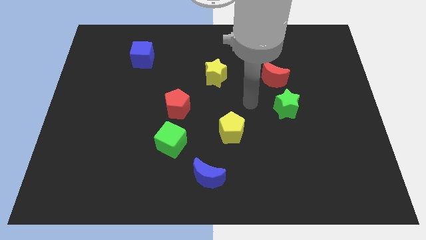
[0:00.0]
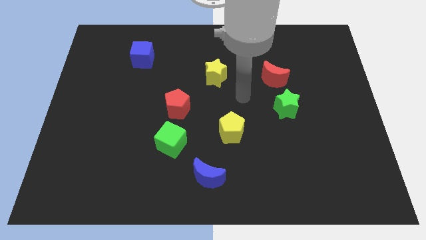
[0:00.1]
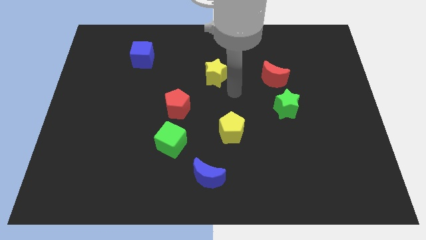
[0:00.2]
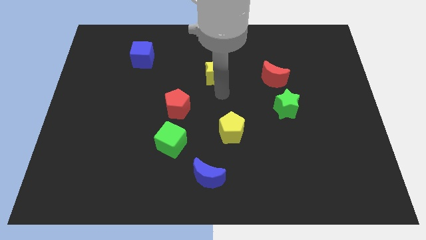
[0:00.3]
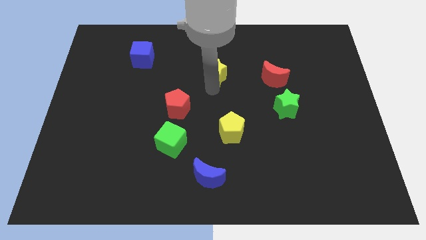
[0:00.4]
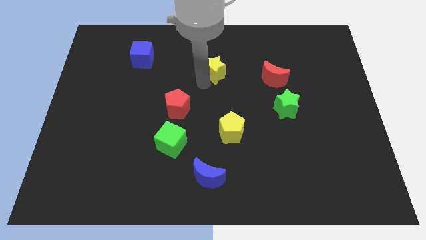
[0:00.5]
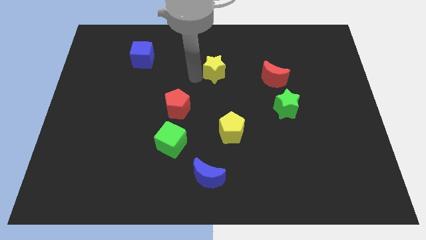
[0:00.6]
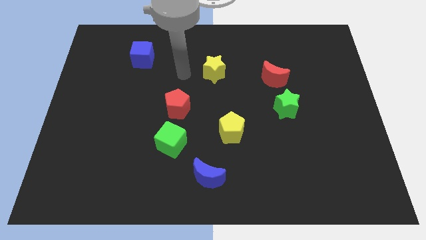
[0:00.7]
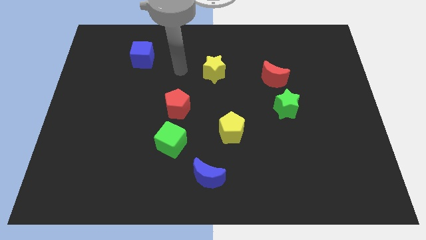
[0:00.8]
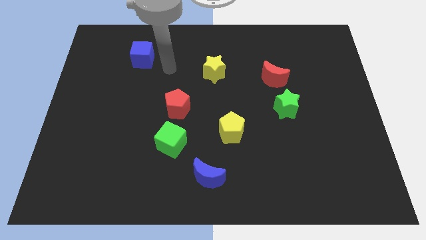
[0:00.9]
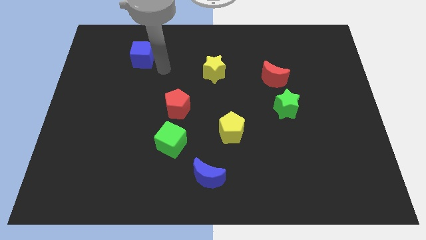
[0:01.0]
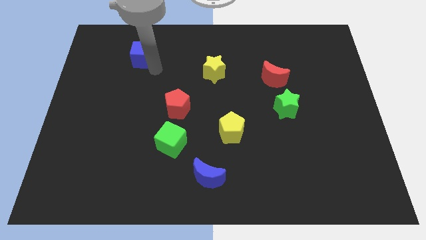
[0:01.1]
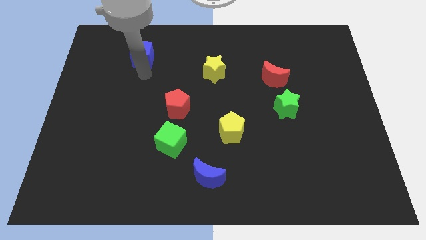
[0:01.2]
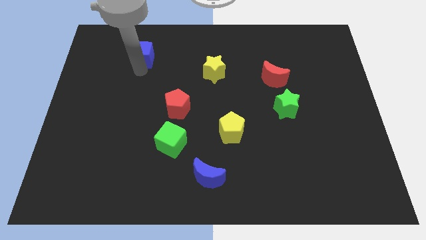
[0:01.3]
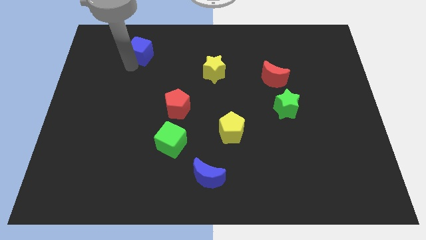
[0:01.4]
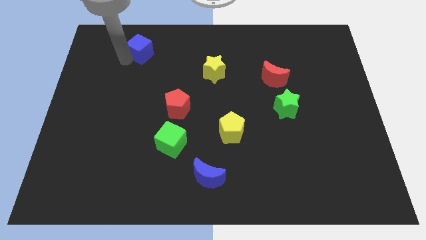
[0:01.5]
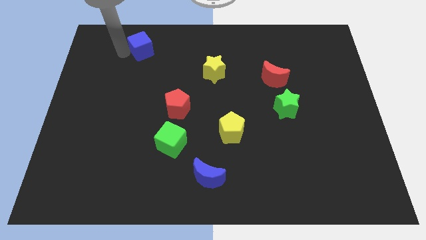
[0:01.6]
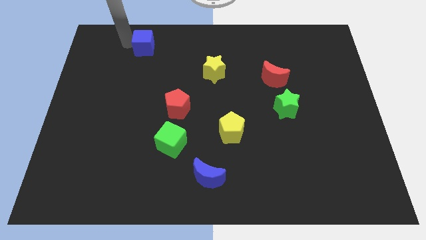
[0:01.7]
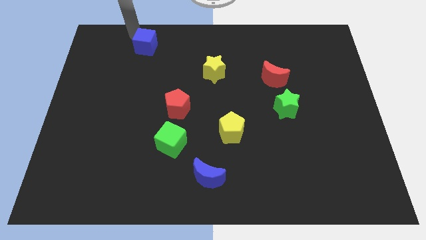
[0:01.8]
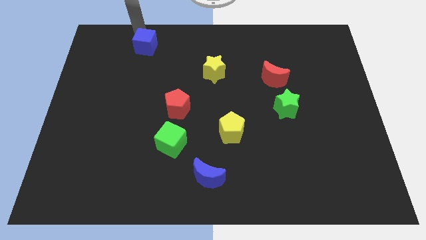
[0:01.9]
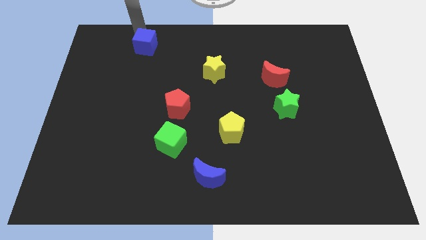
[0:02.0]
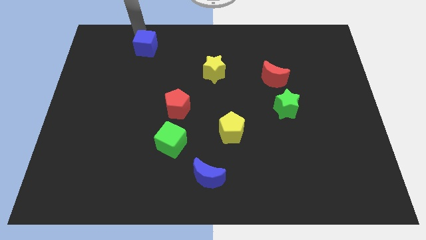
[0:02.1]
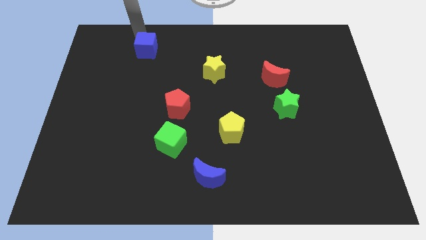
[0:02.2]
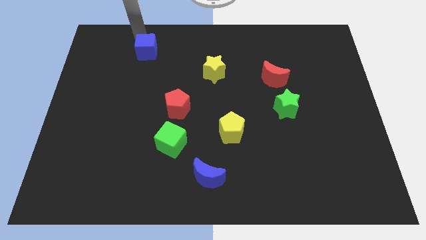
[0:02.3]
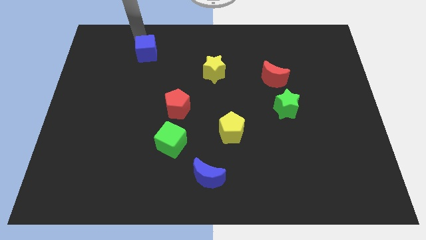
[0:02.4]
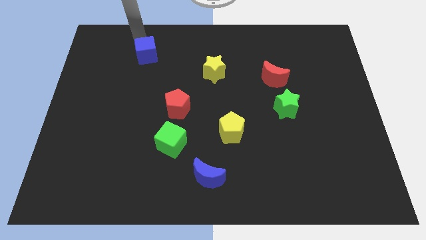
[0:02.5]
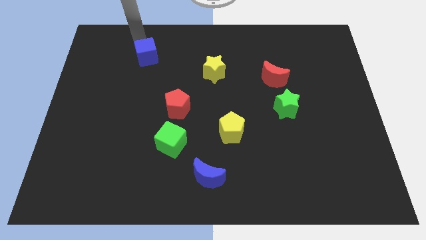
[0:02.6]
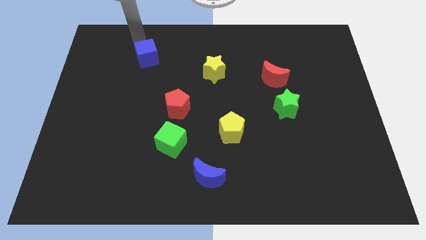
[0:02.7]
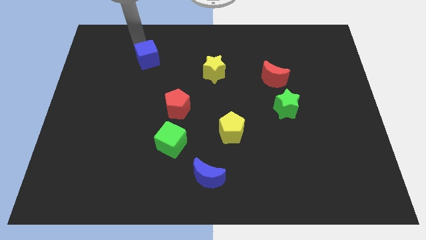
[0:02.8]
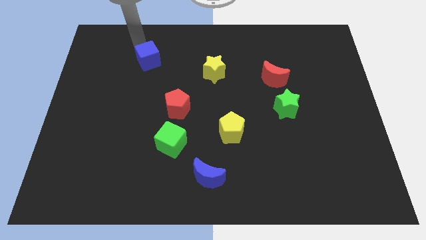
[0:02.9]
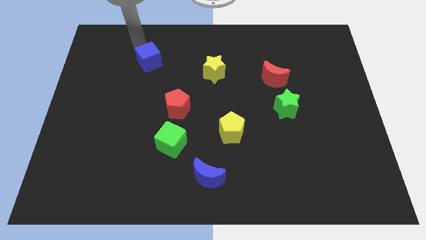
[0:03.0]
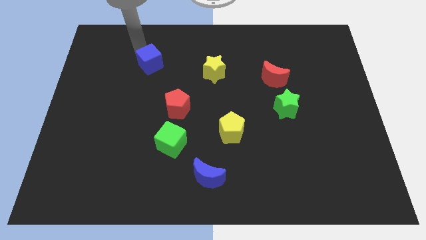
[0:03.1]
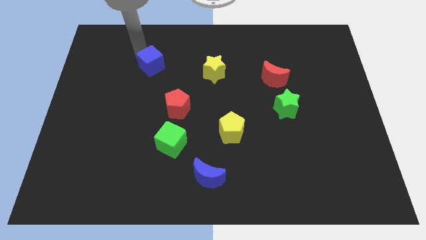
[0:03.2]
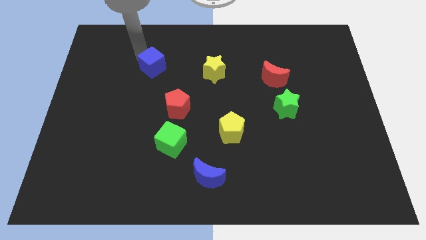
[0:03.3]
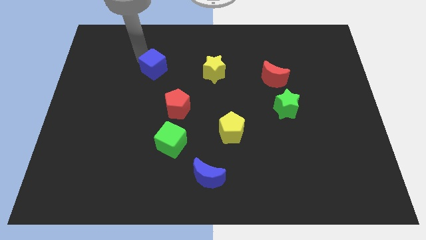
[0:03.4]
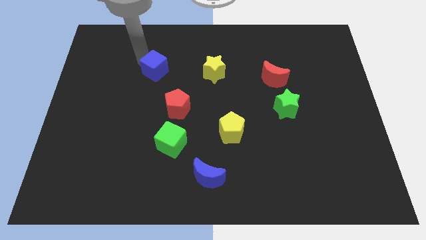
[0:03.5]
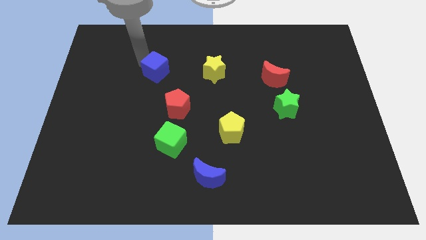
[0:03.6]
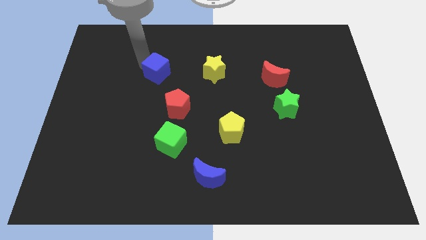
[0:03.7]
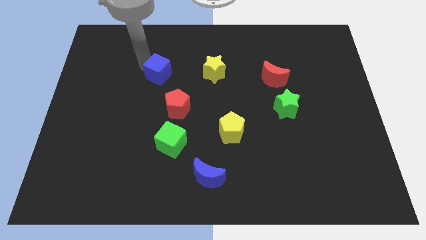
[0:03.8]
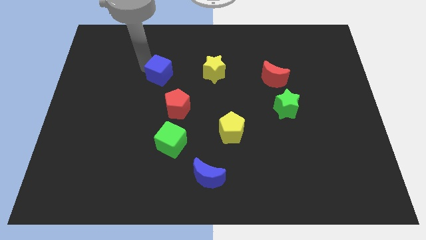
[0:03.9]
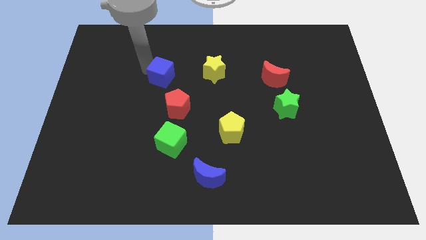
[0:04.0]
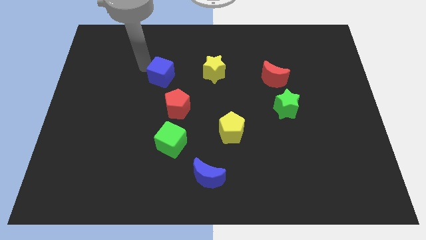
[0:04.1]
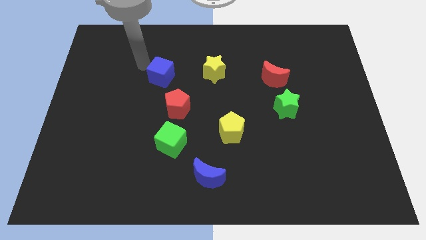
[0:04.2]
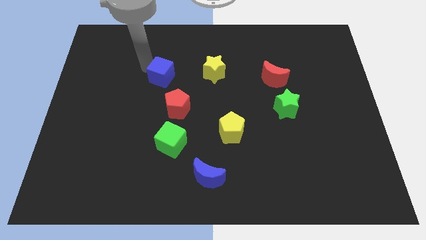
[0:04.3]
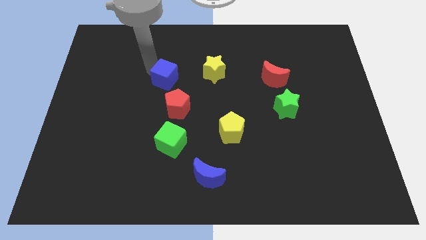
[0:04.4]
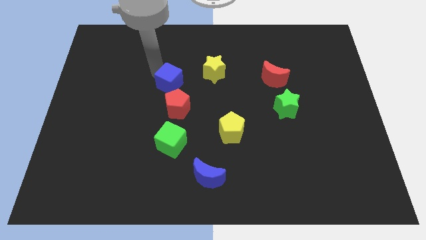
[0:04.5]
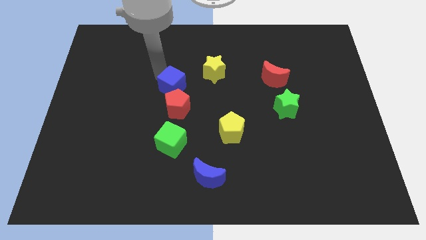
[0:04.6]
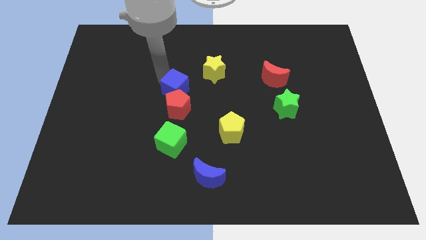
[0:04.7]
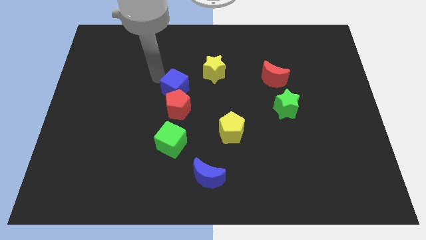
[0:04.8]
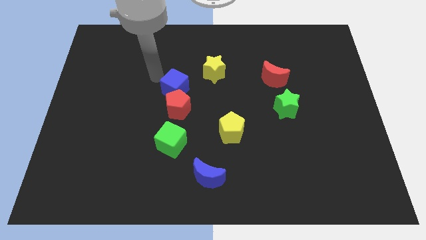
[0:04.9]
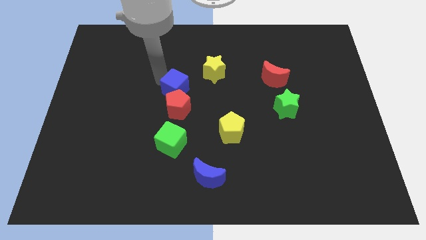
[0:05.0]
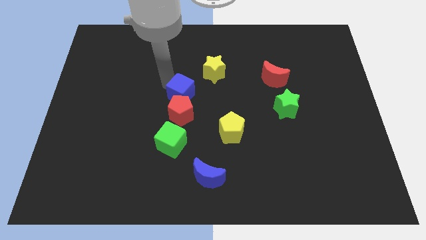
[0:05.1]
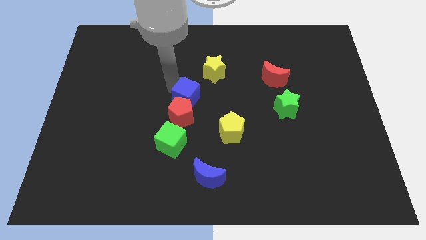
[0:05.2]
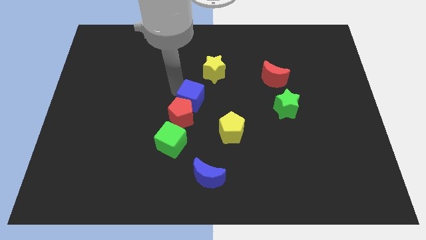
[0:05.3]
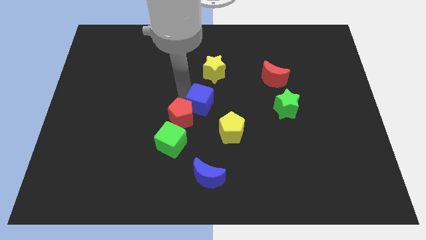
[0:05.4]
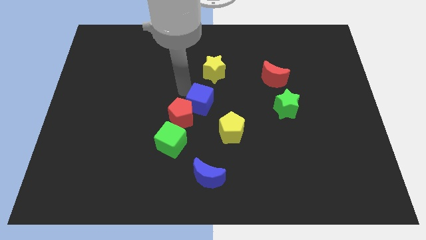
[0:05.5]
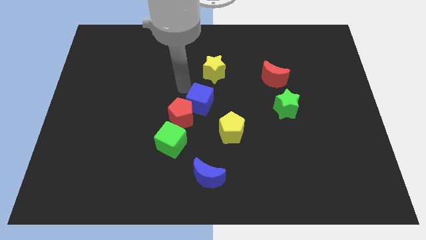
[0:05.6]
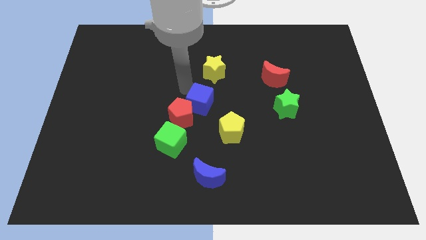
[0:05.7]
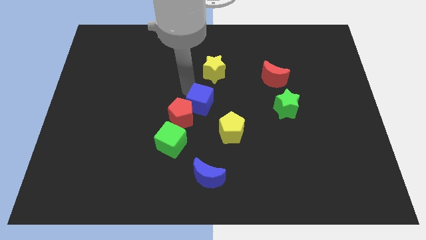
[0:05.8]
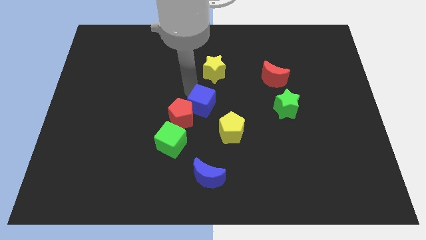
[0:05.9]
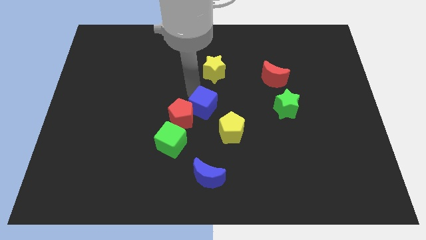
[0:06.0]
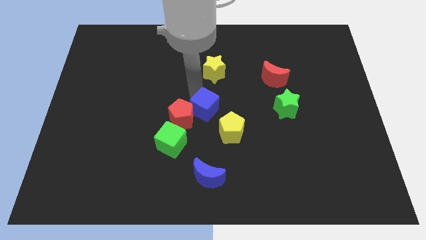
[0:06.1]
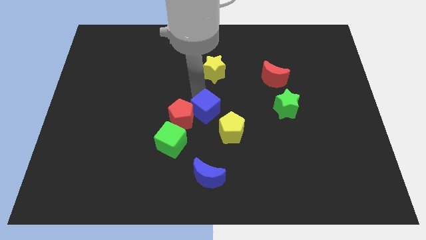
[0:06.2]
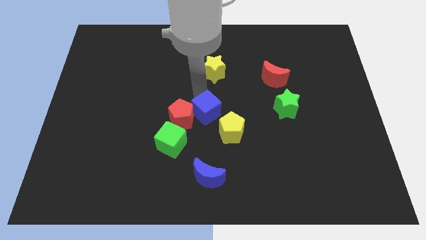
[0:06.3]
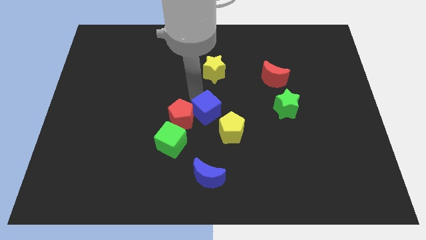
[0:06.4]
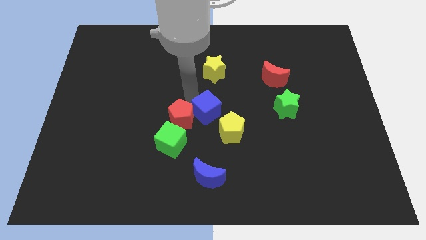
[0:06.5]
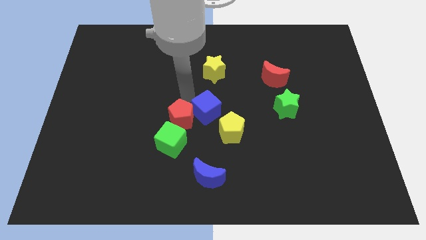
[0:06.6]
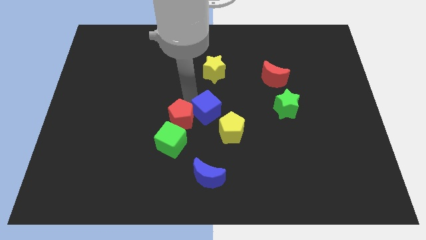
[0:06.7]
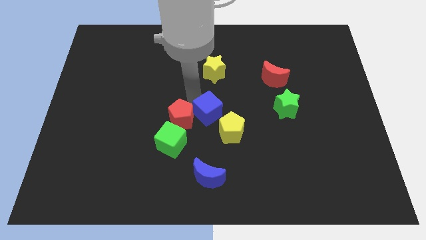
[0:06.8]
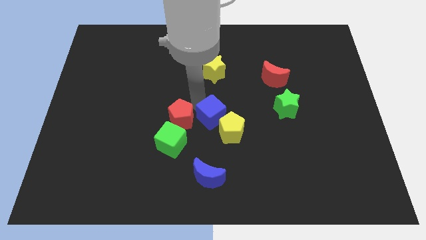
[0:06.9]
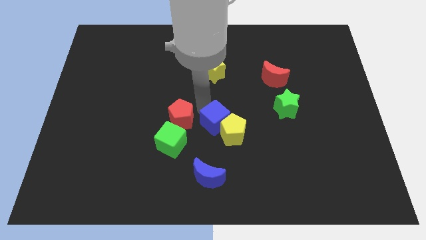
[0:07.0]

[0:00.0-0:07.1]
put the blue cube towards the yellow pentagon

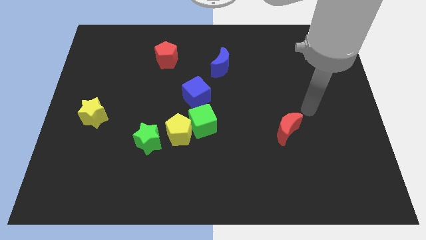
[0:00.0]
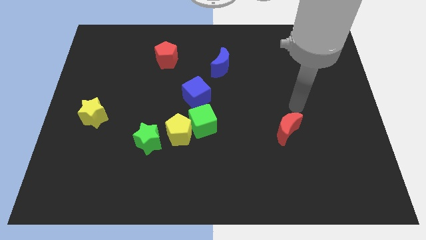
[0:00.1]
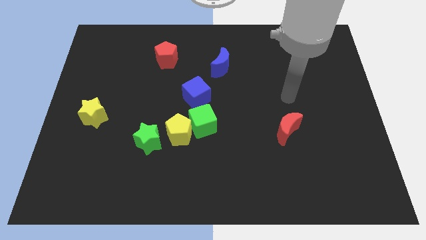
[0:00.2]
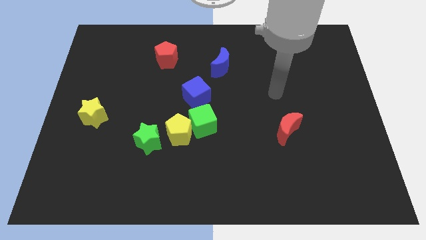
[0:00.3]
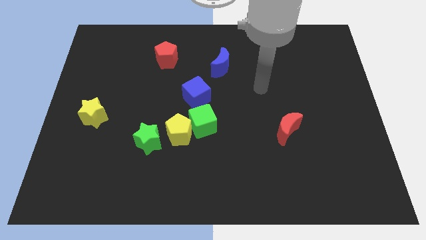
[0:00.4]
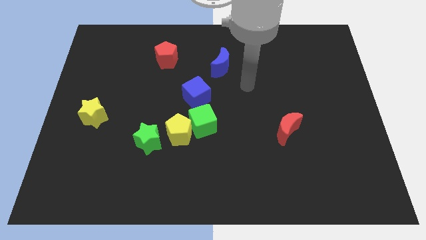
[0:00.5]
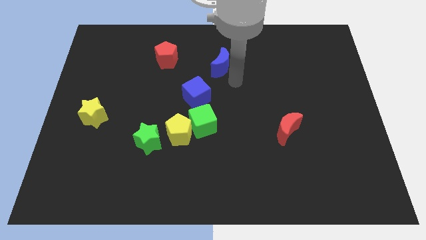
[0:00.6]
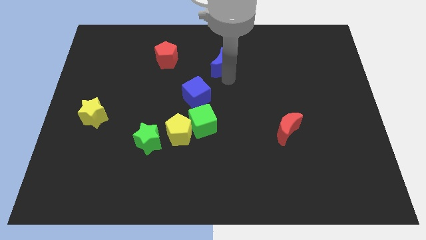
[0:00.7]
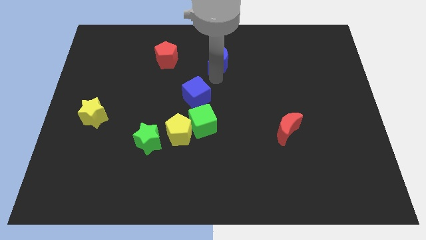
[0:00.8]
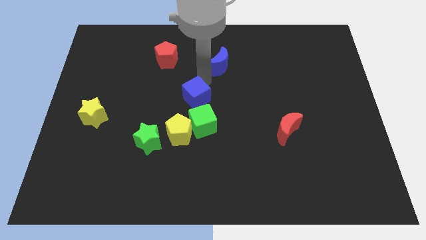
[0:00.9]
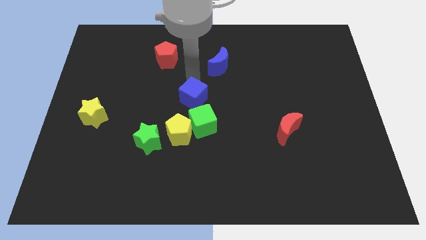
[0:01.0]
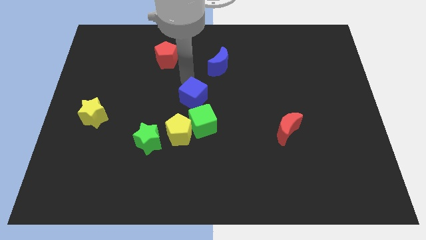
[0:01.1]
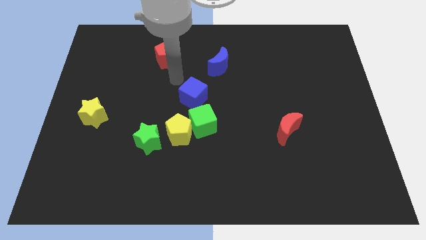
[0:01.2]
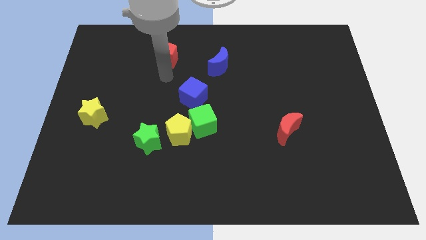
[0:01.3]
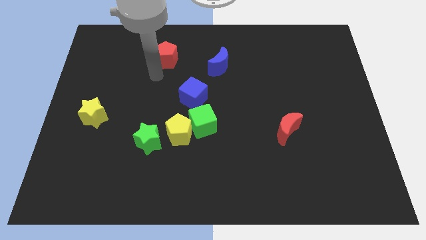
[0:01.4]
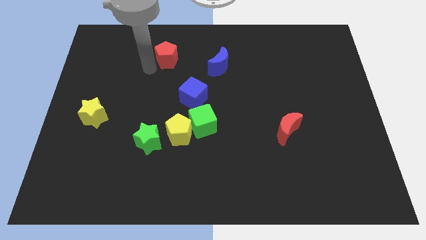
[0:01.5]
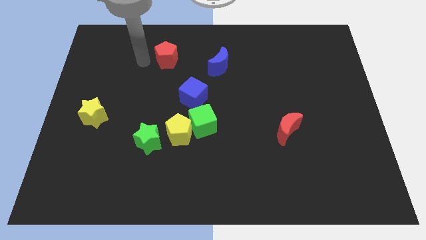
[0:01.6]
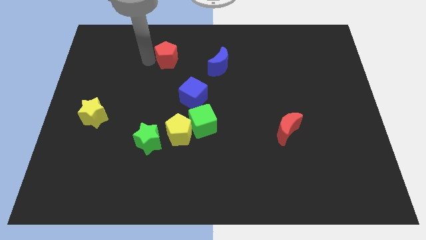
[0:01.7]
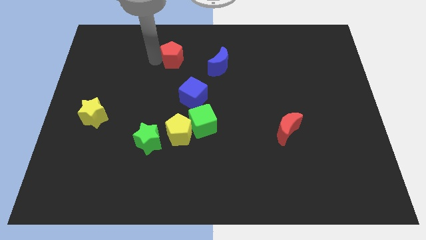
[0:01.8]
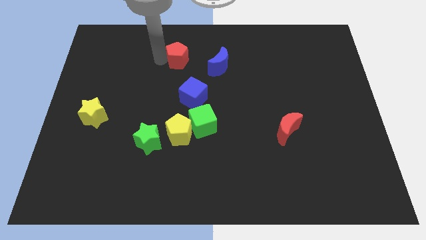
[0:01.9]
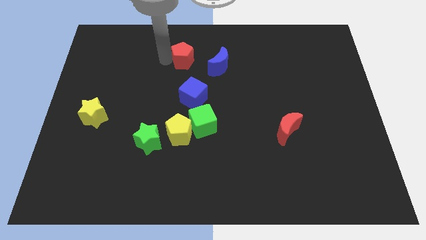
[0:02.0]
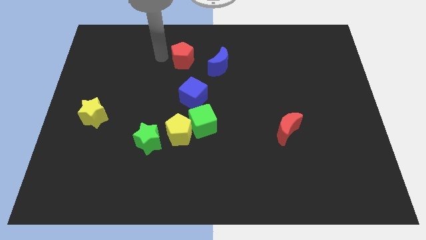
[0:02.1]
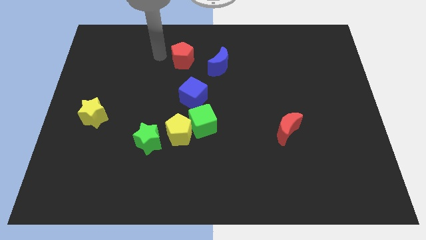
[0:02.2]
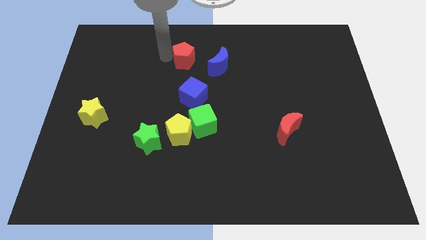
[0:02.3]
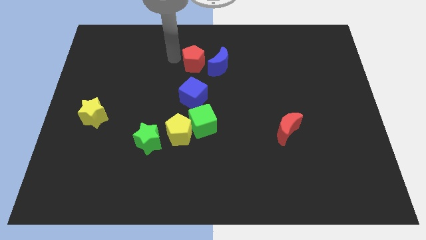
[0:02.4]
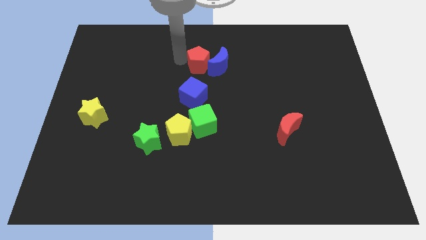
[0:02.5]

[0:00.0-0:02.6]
slide the red pentagon next to the blue moon
